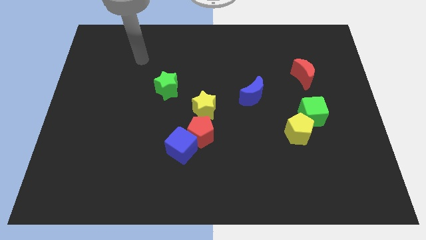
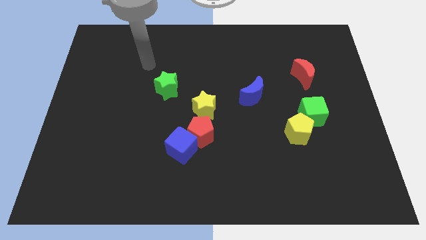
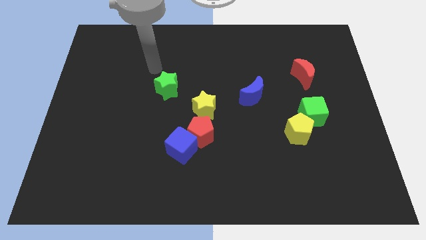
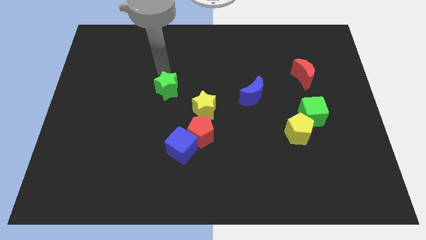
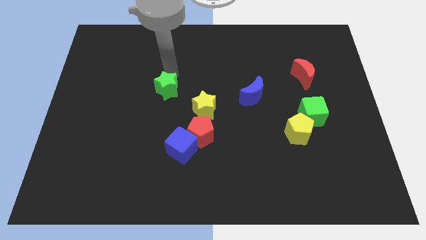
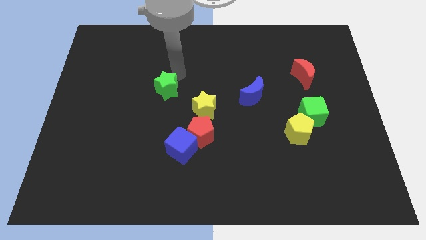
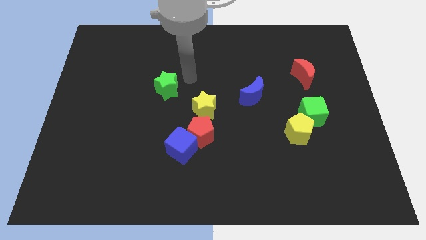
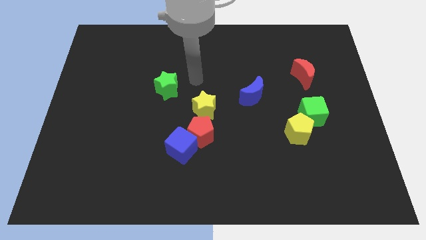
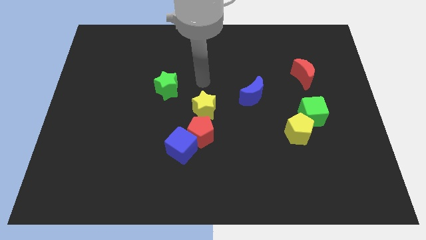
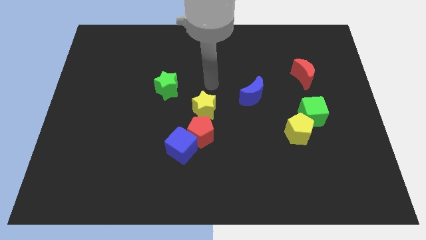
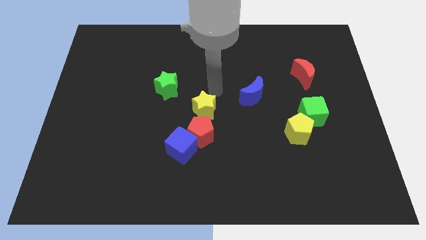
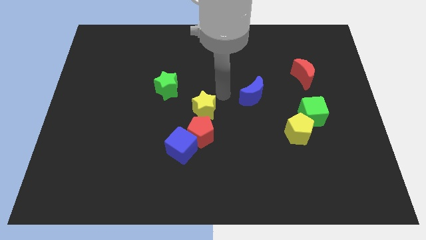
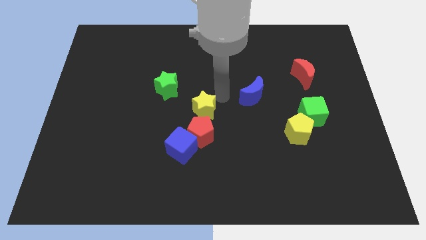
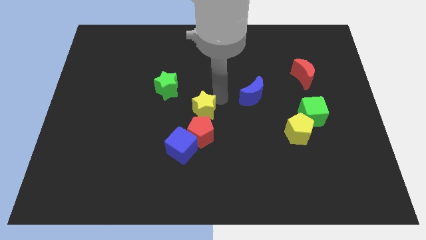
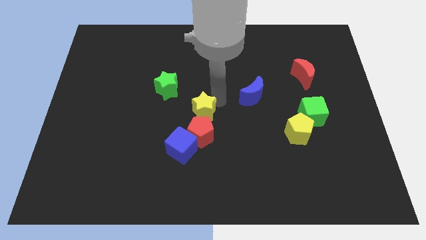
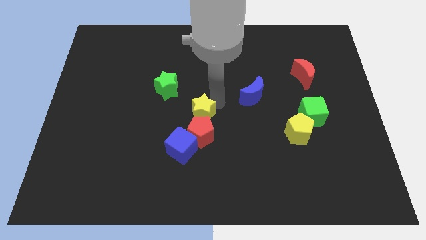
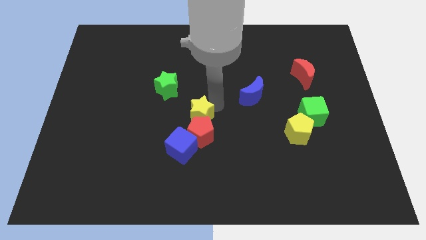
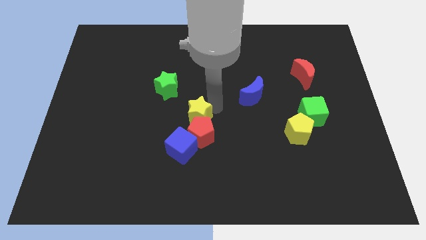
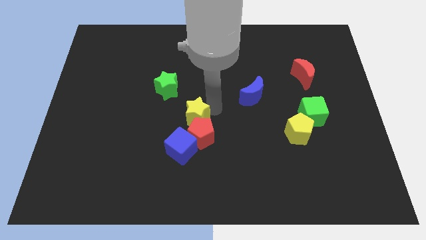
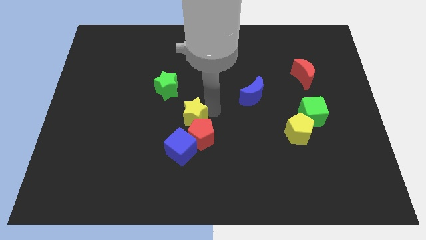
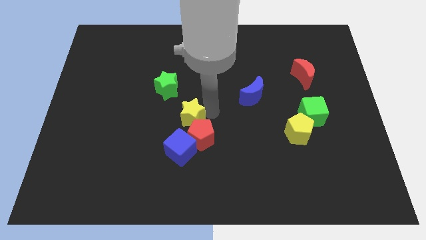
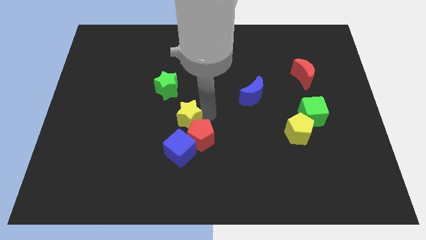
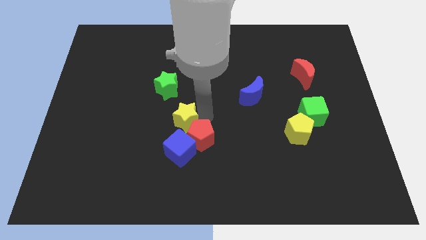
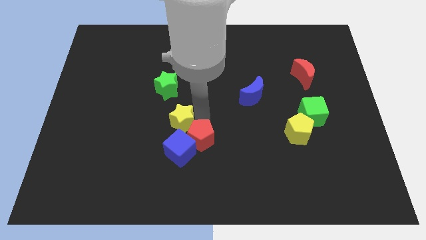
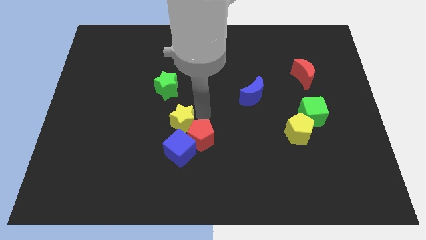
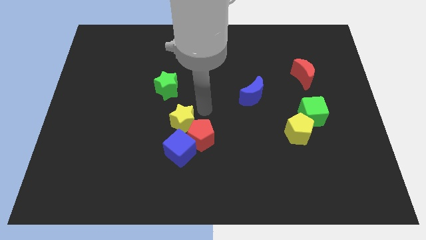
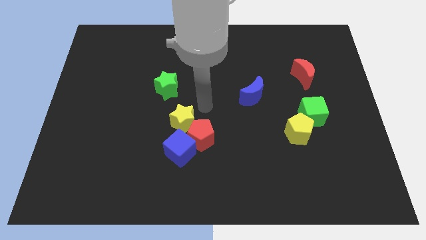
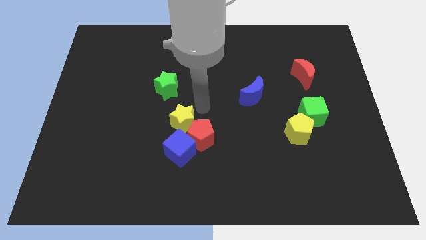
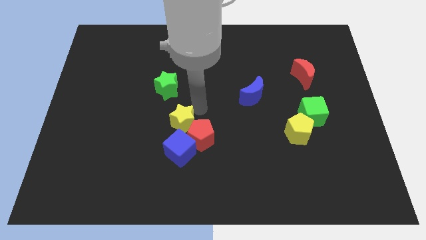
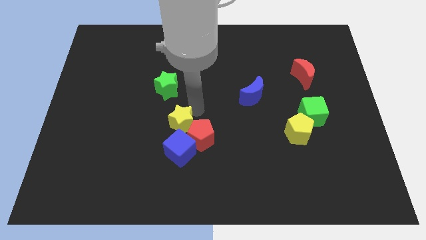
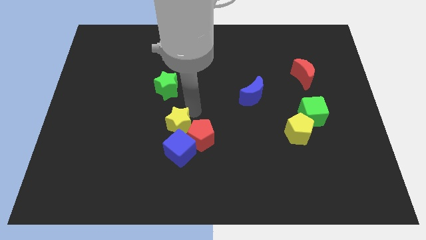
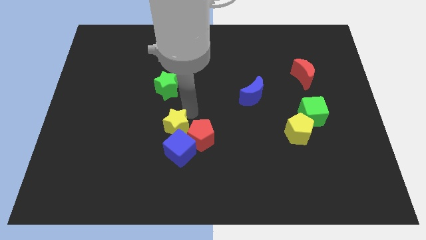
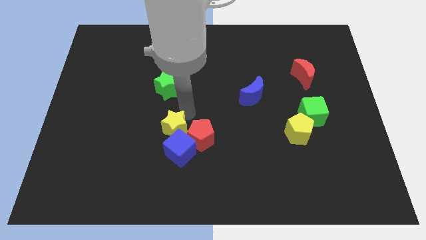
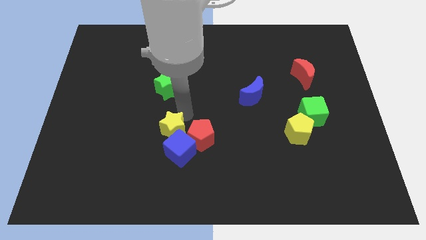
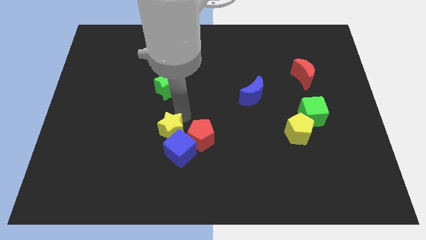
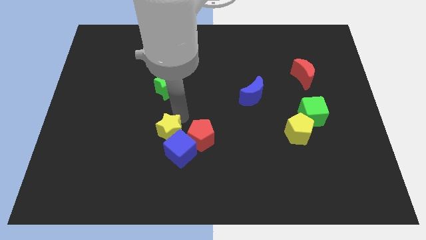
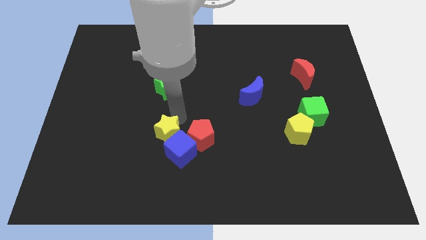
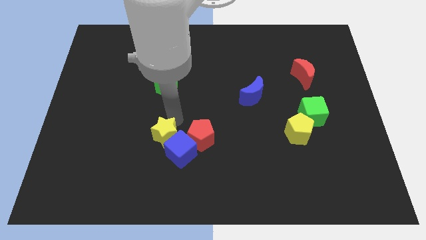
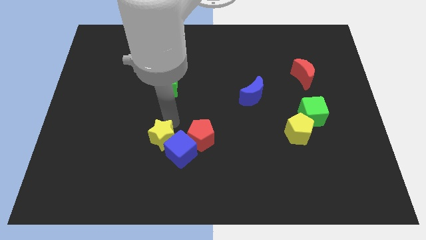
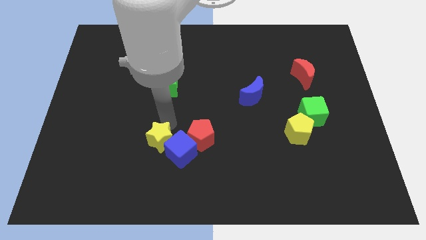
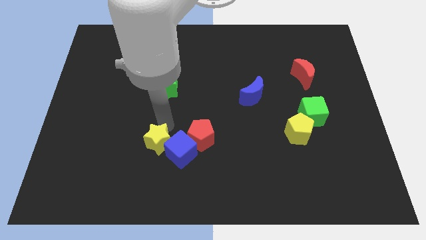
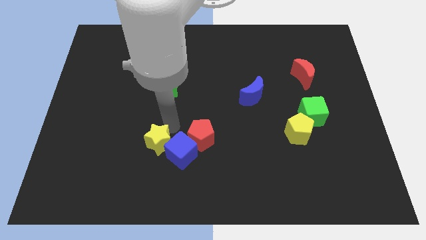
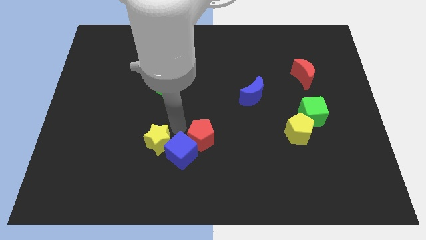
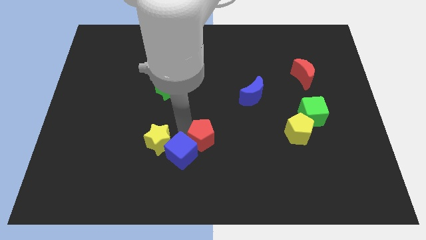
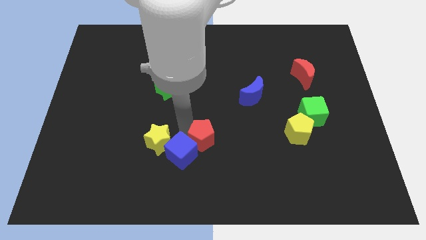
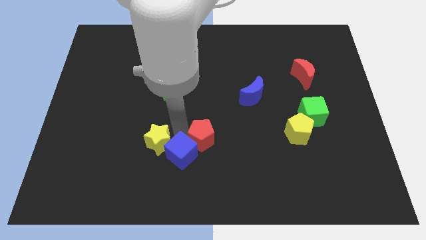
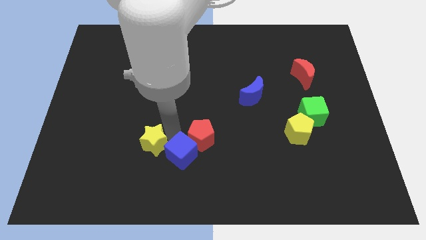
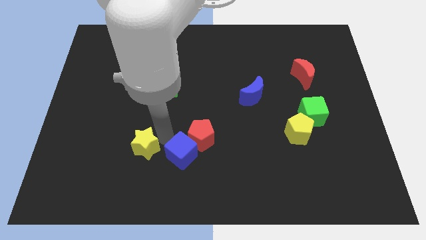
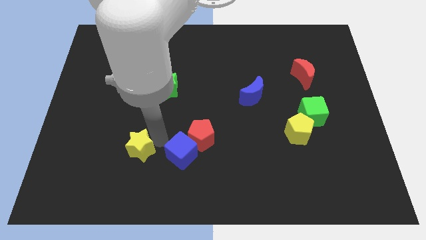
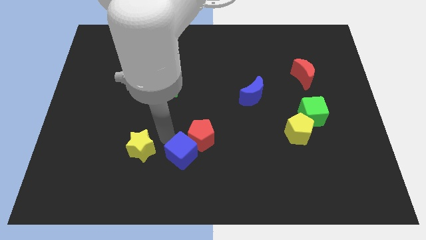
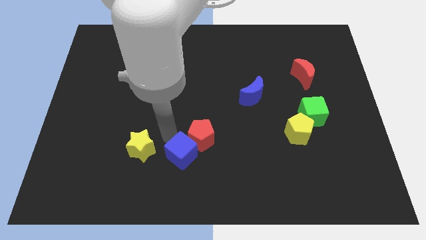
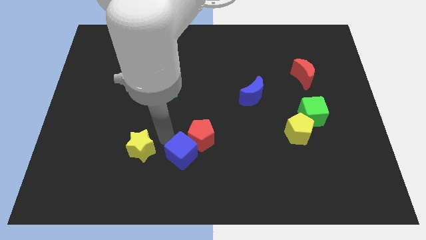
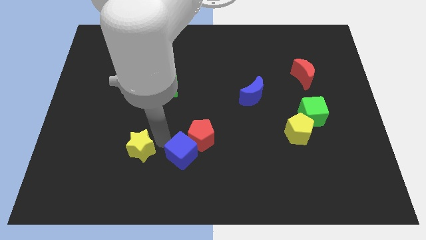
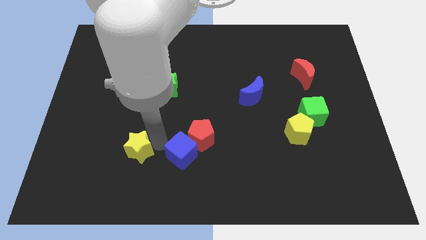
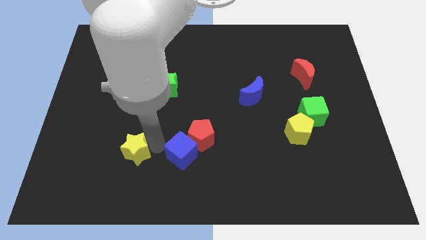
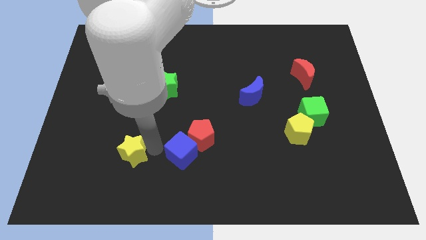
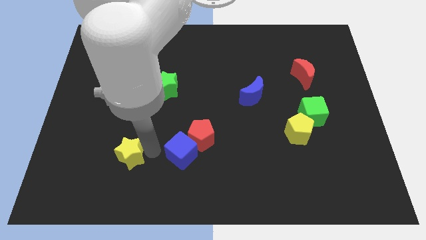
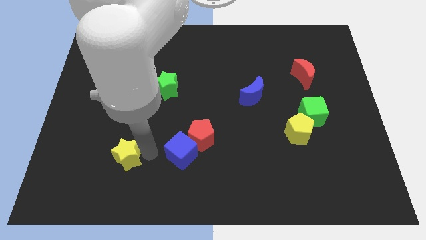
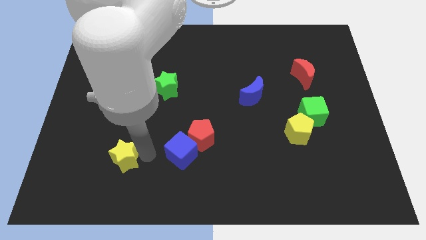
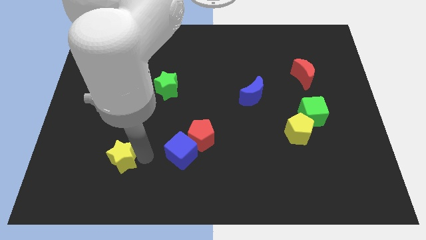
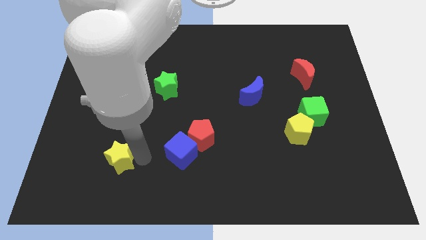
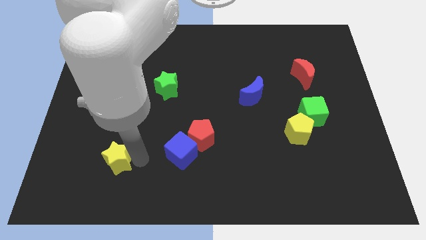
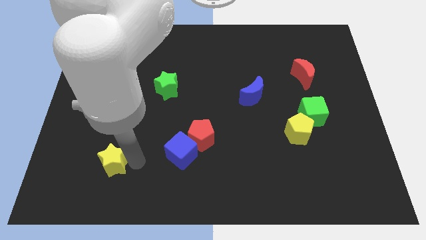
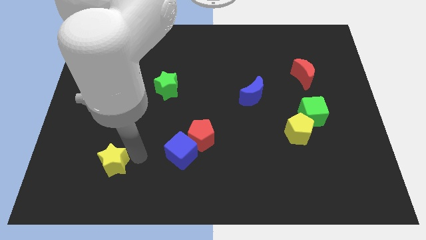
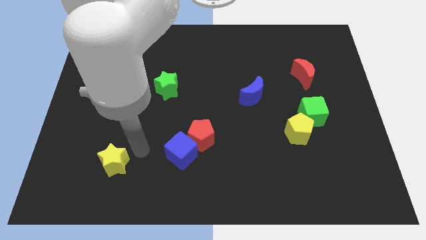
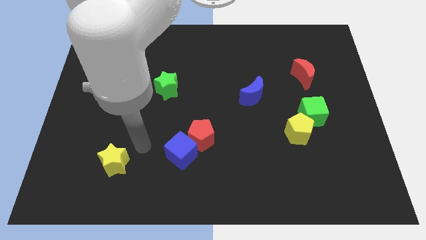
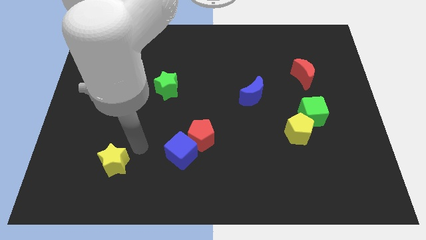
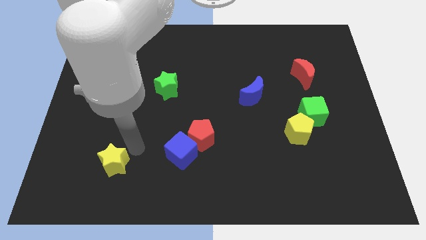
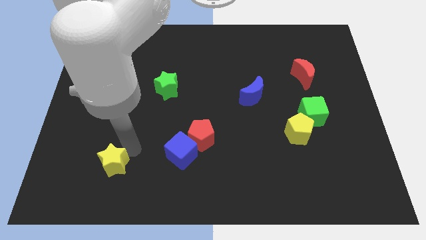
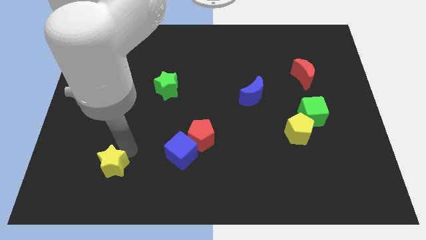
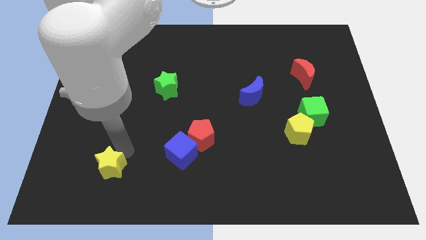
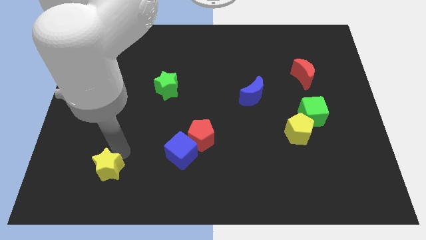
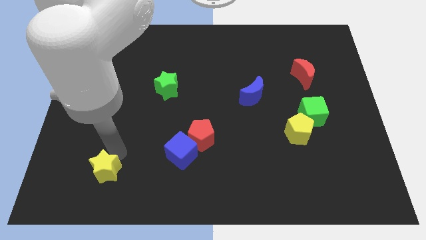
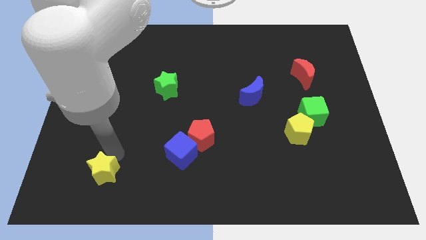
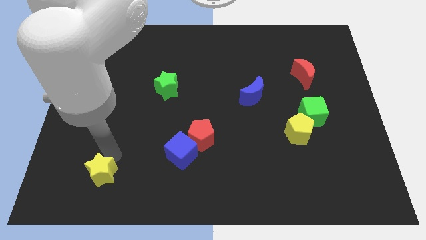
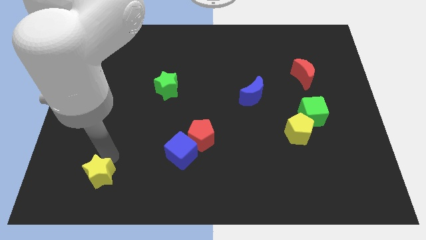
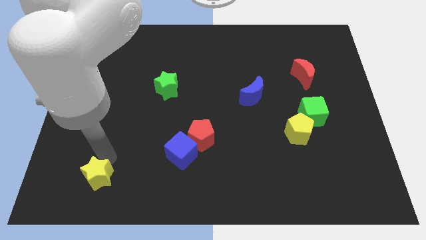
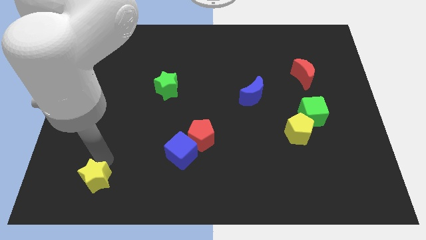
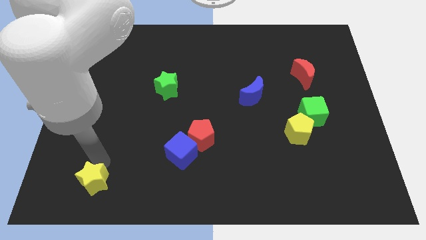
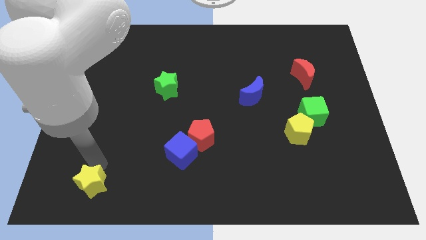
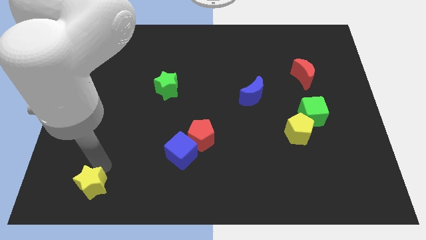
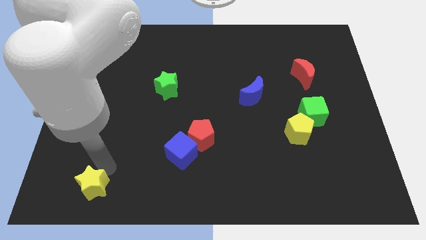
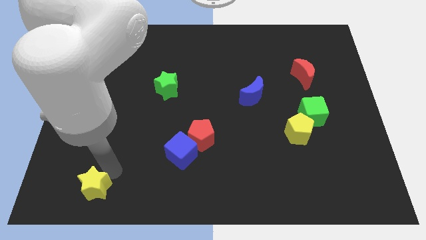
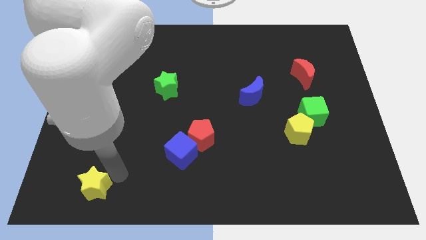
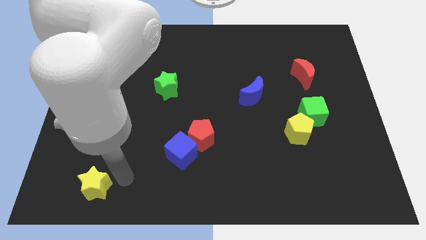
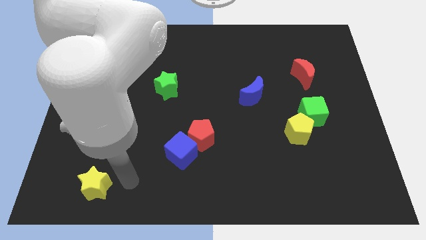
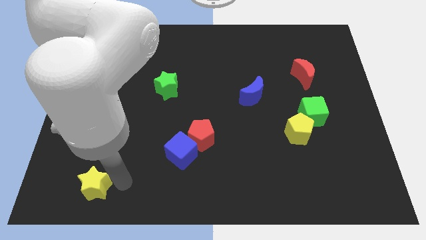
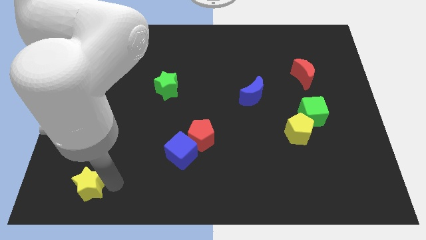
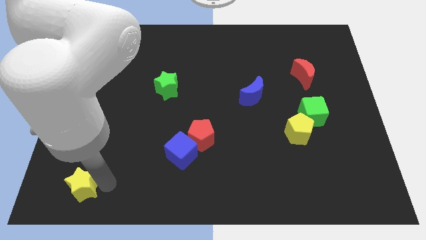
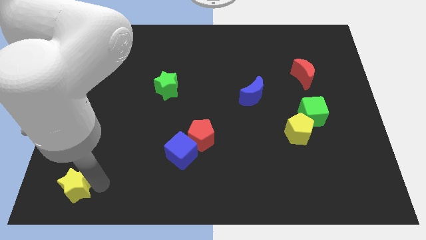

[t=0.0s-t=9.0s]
put the yellow star to the lower left corner
